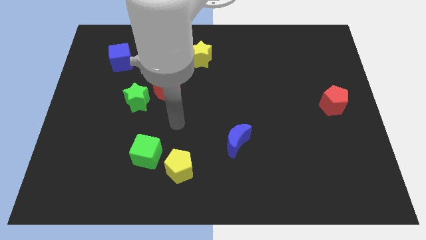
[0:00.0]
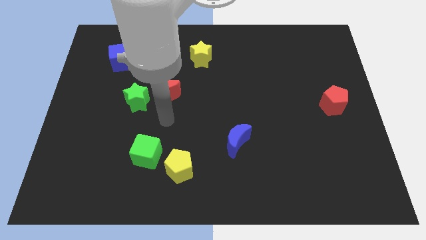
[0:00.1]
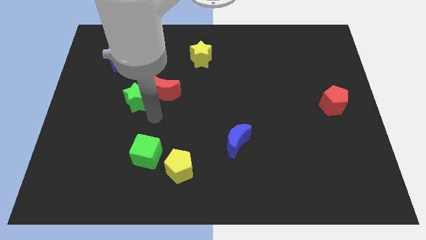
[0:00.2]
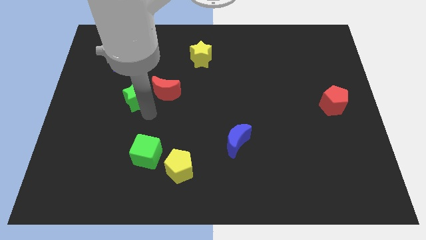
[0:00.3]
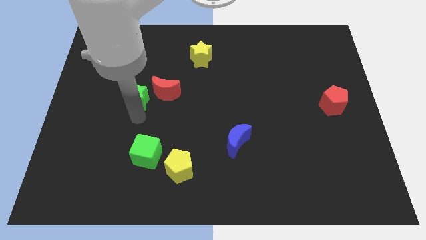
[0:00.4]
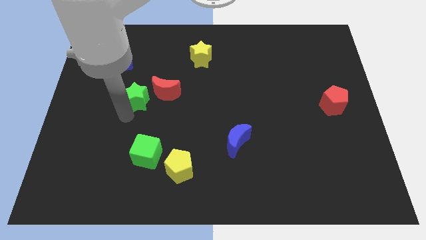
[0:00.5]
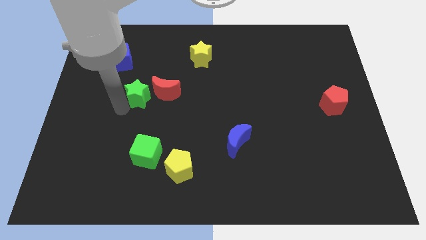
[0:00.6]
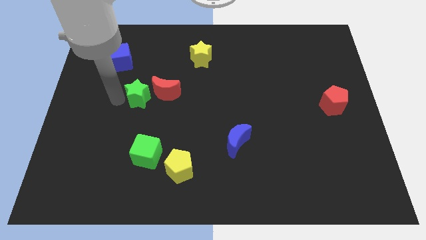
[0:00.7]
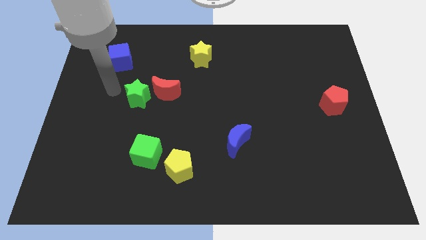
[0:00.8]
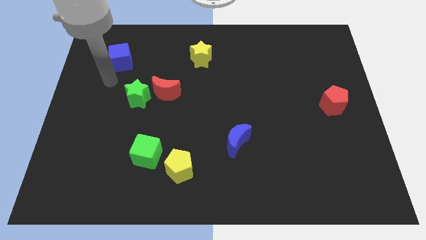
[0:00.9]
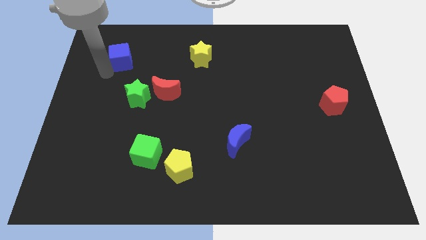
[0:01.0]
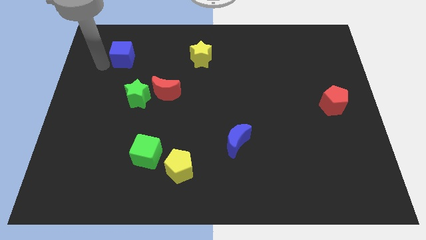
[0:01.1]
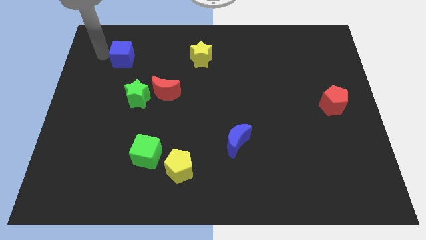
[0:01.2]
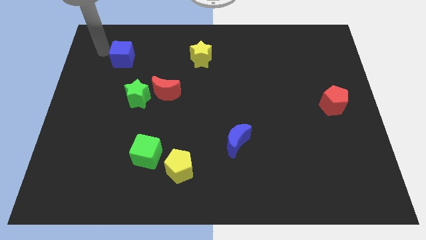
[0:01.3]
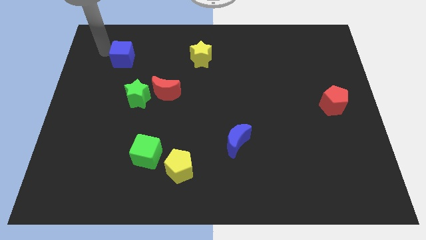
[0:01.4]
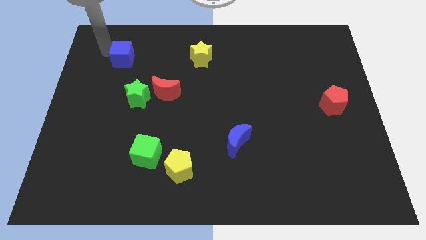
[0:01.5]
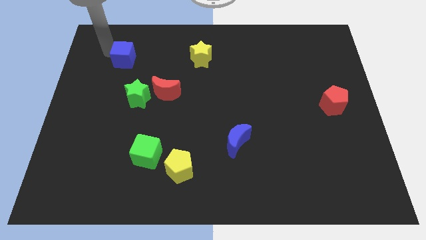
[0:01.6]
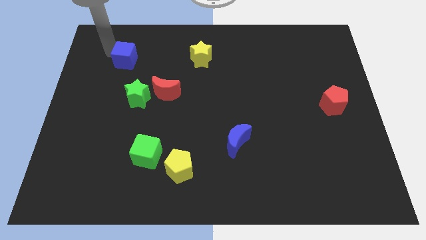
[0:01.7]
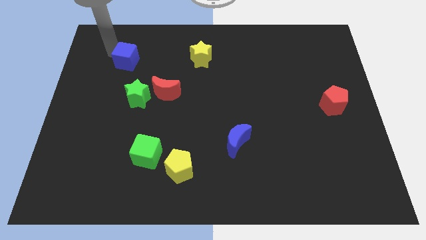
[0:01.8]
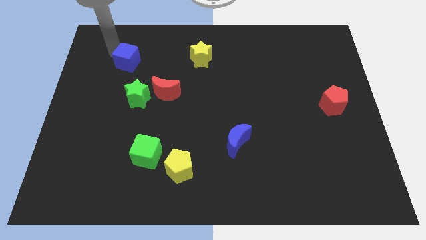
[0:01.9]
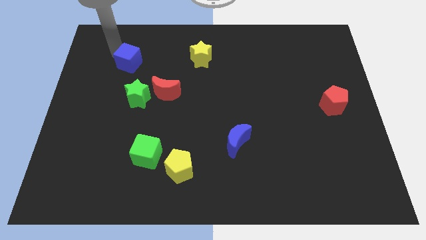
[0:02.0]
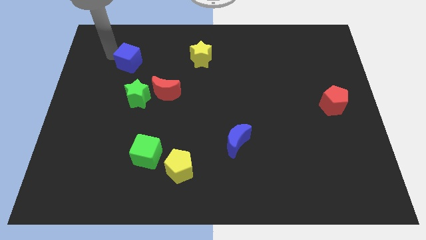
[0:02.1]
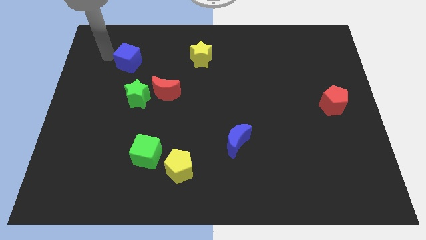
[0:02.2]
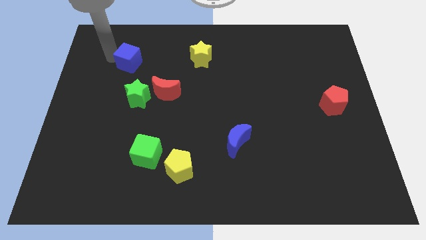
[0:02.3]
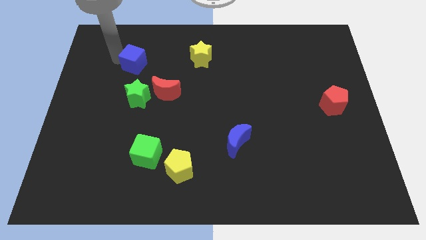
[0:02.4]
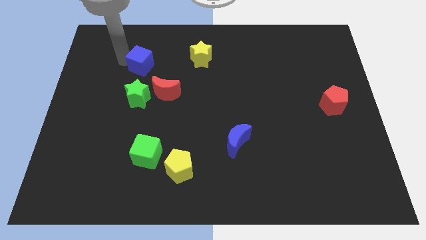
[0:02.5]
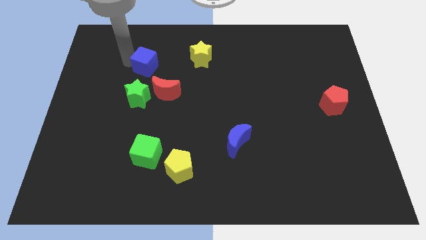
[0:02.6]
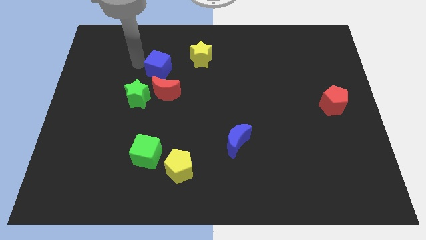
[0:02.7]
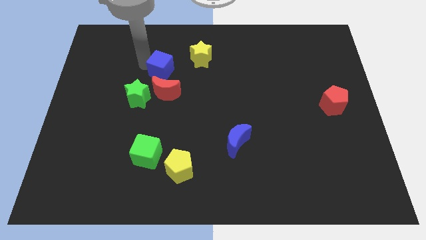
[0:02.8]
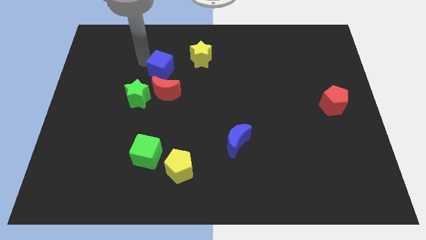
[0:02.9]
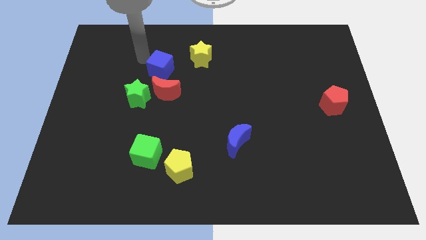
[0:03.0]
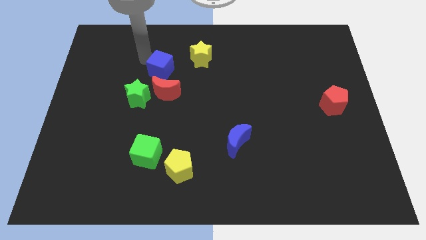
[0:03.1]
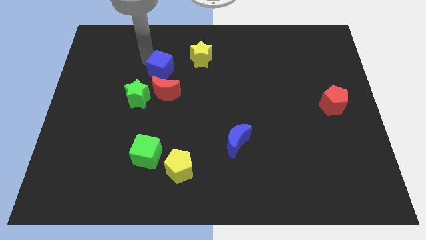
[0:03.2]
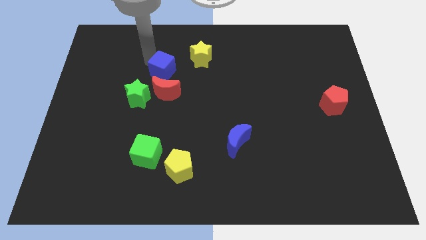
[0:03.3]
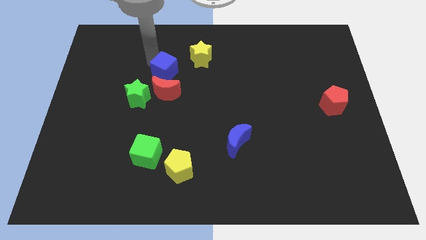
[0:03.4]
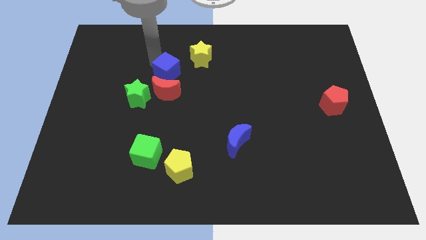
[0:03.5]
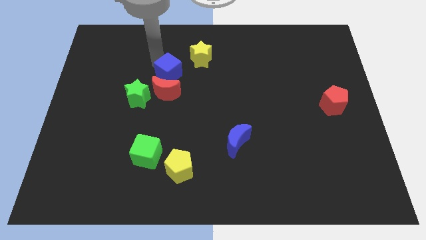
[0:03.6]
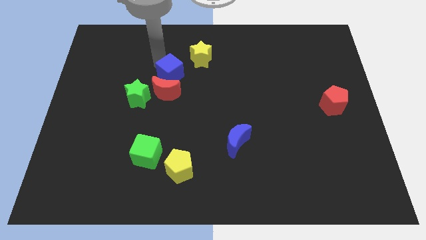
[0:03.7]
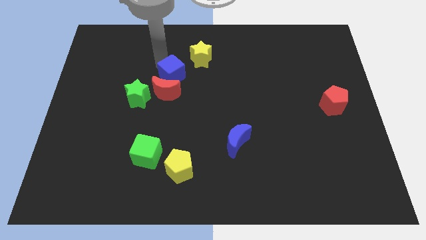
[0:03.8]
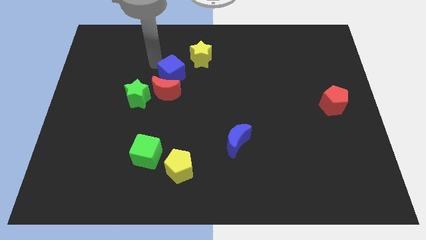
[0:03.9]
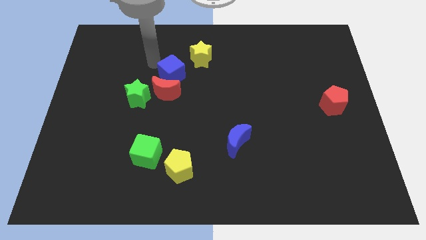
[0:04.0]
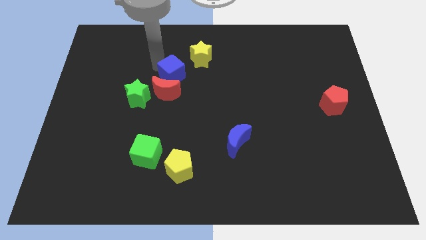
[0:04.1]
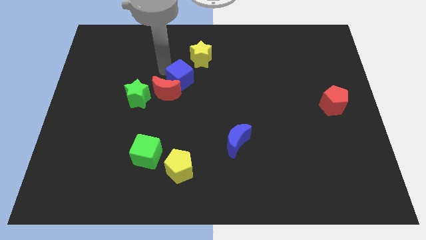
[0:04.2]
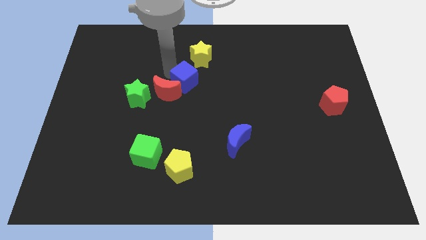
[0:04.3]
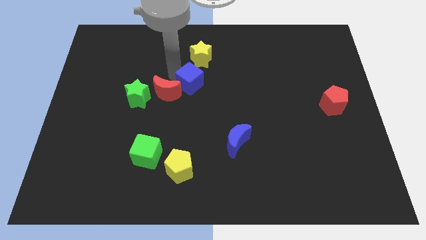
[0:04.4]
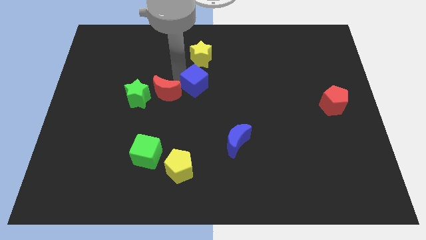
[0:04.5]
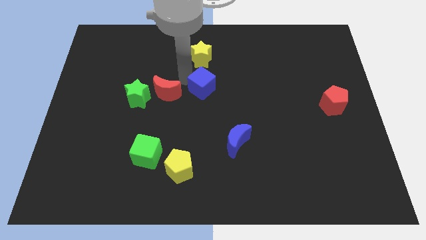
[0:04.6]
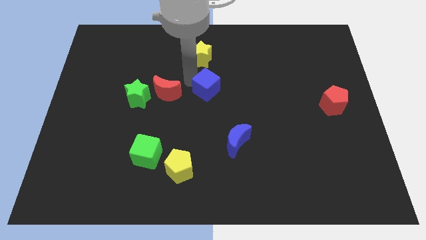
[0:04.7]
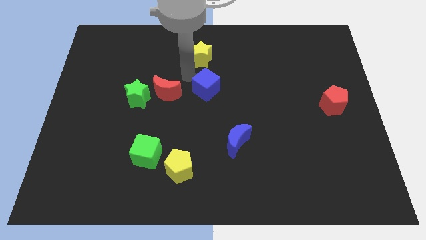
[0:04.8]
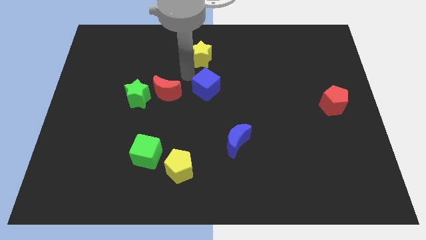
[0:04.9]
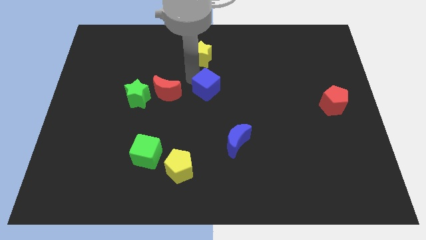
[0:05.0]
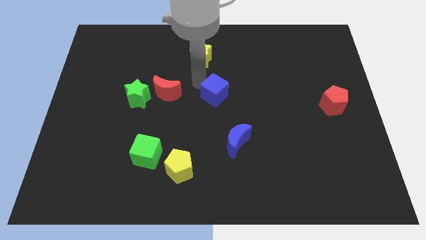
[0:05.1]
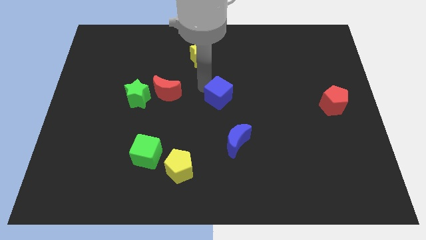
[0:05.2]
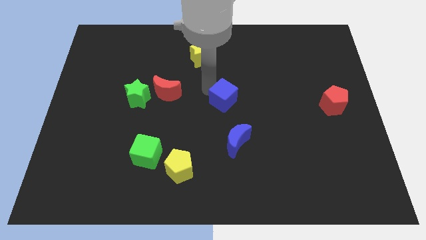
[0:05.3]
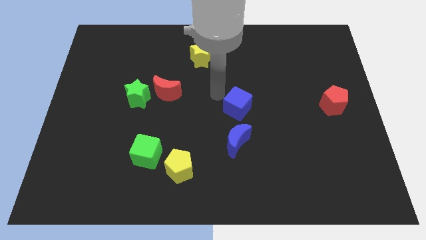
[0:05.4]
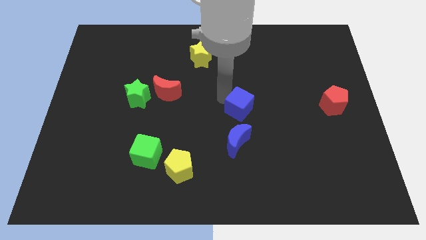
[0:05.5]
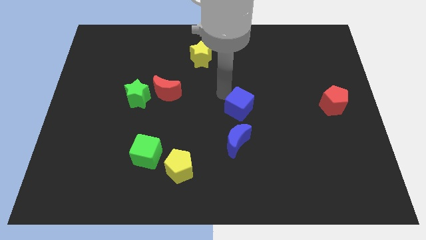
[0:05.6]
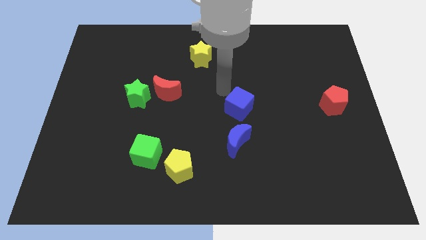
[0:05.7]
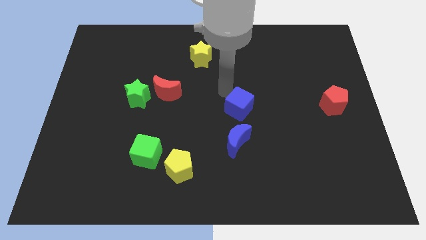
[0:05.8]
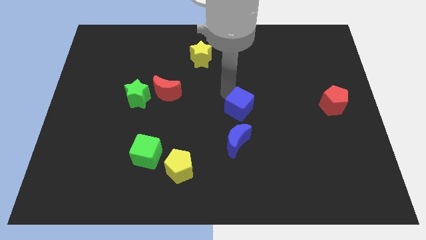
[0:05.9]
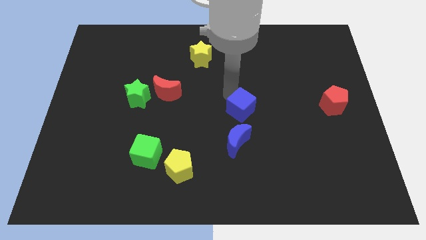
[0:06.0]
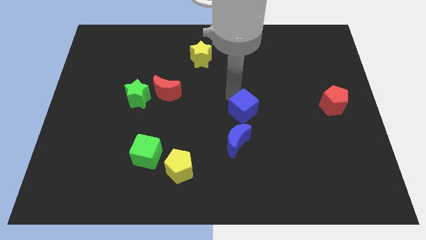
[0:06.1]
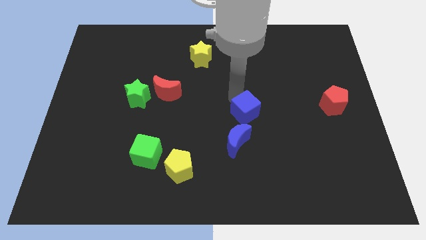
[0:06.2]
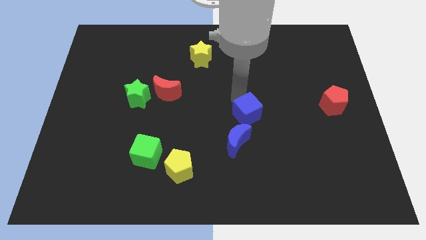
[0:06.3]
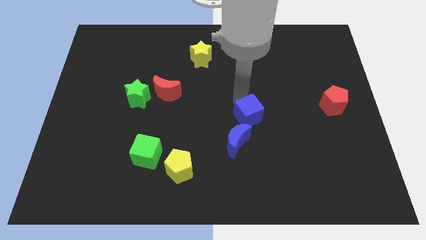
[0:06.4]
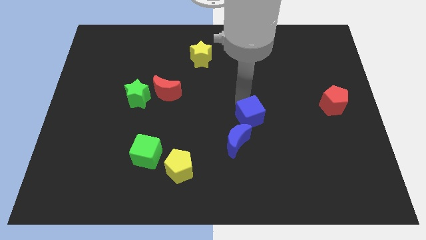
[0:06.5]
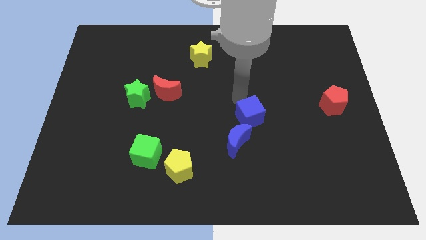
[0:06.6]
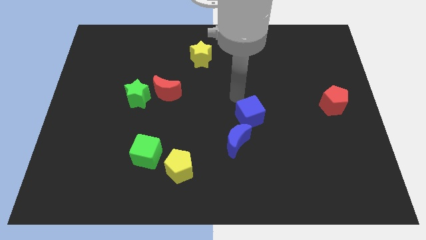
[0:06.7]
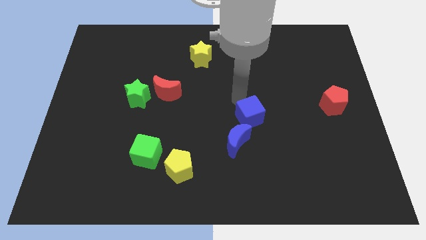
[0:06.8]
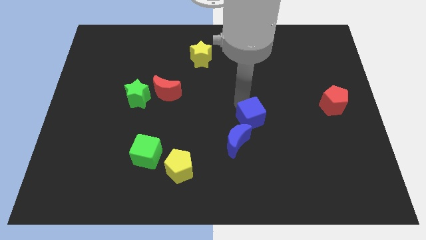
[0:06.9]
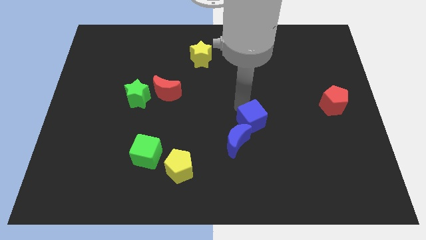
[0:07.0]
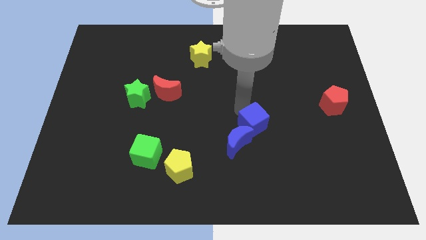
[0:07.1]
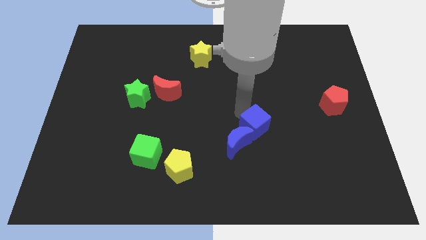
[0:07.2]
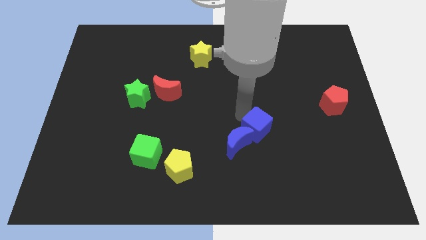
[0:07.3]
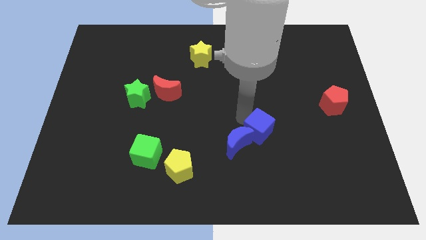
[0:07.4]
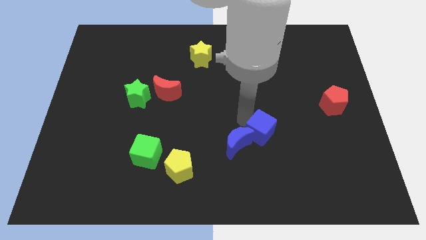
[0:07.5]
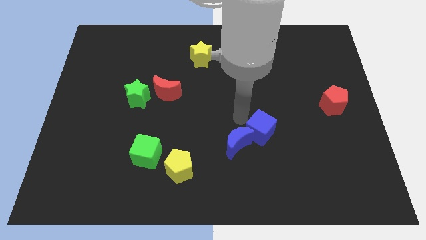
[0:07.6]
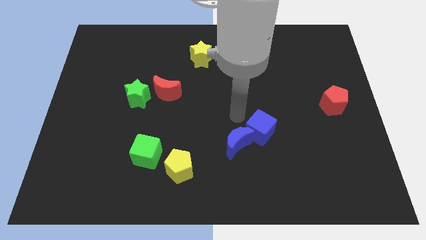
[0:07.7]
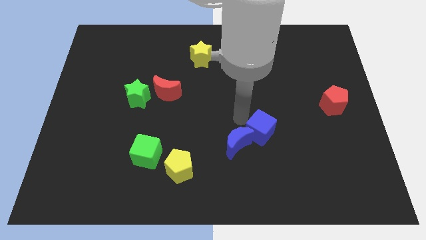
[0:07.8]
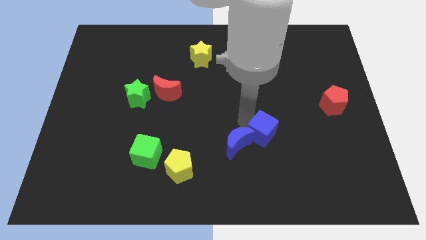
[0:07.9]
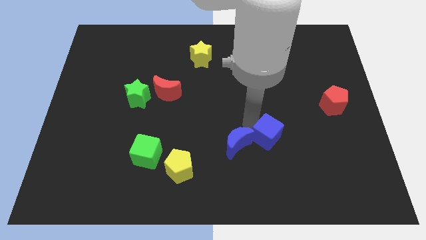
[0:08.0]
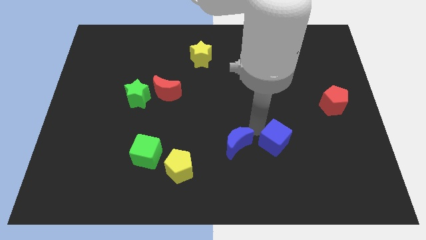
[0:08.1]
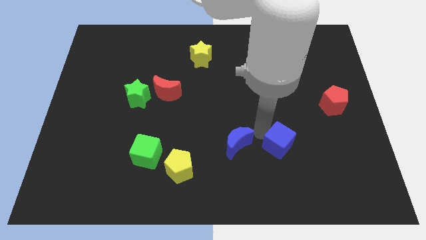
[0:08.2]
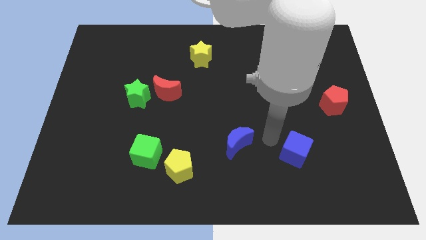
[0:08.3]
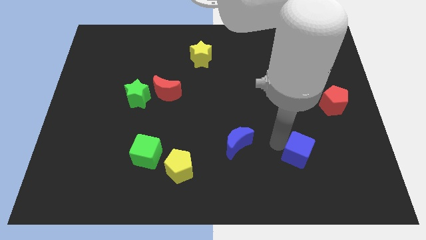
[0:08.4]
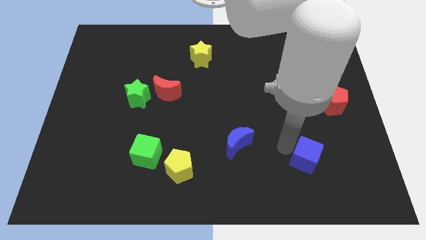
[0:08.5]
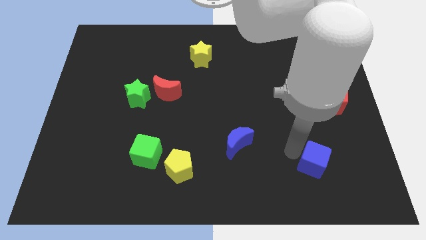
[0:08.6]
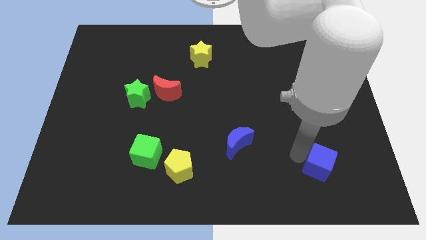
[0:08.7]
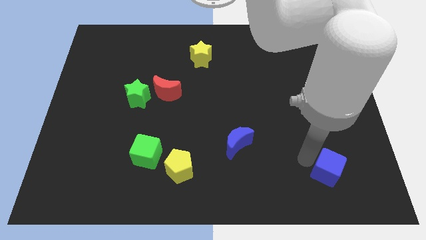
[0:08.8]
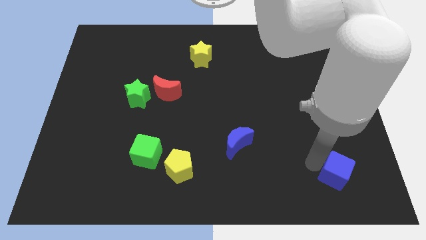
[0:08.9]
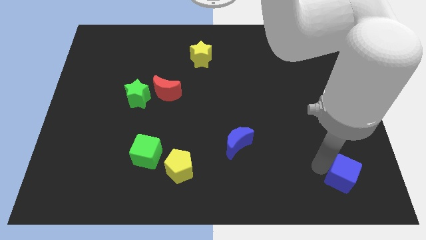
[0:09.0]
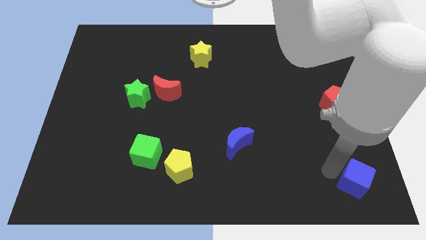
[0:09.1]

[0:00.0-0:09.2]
push the blue cube to the lower right corner
